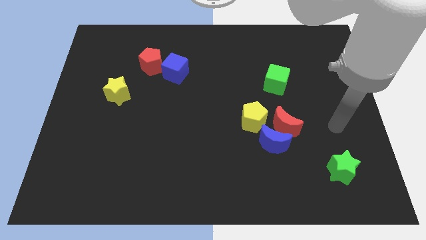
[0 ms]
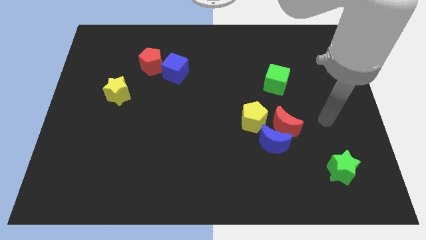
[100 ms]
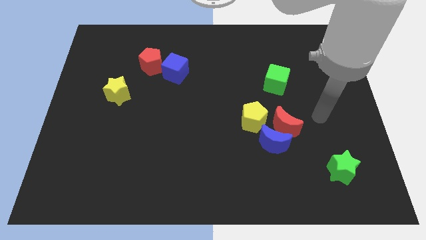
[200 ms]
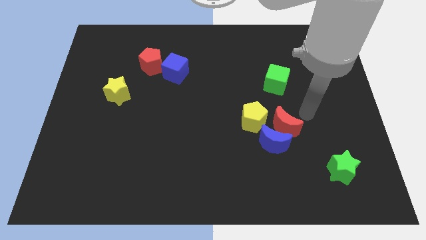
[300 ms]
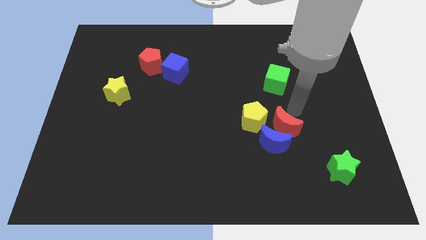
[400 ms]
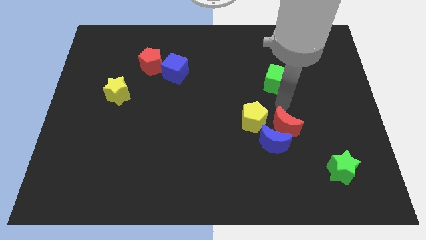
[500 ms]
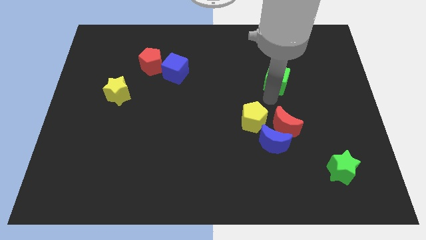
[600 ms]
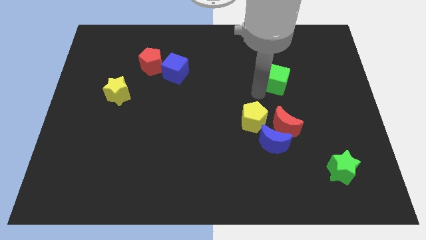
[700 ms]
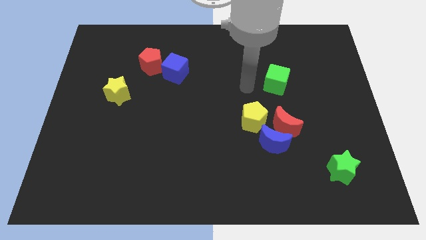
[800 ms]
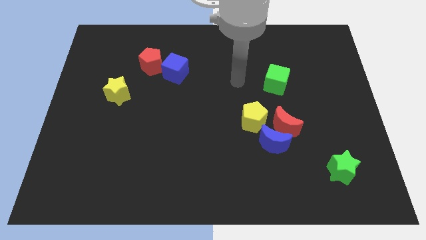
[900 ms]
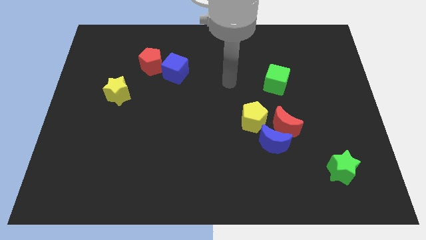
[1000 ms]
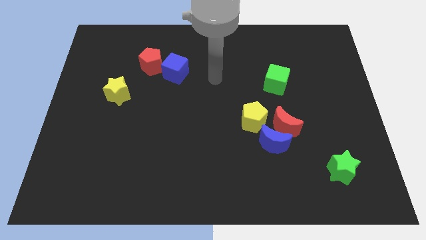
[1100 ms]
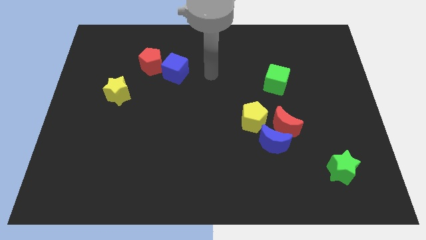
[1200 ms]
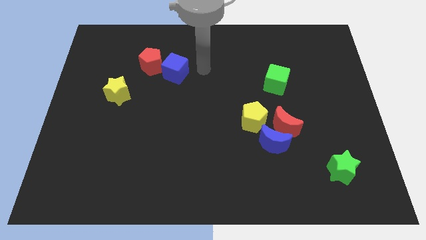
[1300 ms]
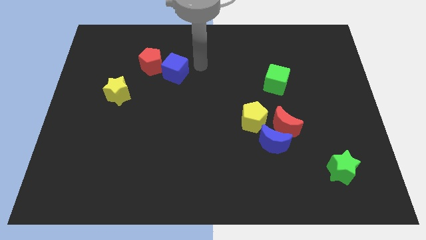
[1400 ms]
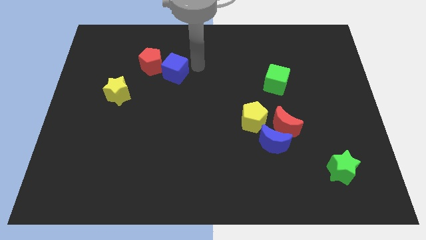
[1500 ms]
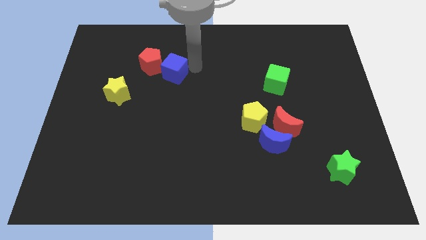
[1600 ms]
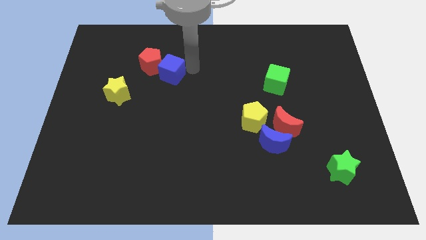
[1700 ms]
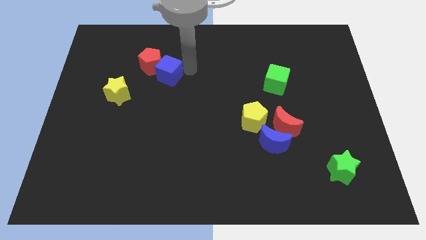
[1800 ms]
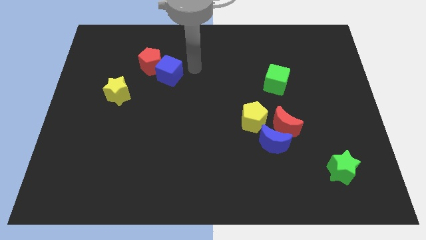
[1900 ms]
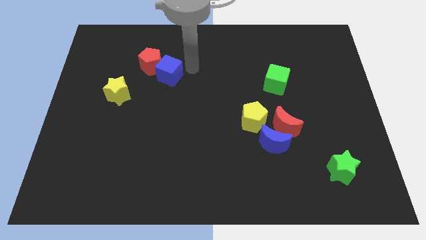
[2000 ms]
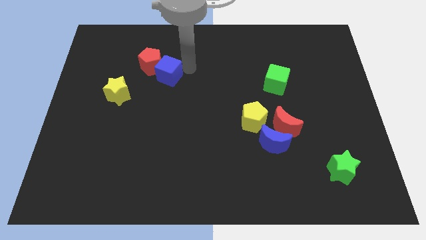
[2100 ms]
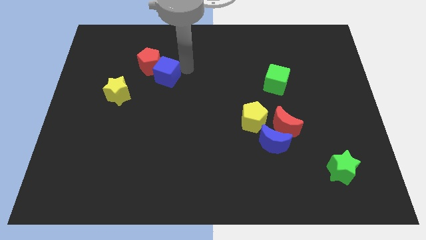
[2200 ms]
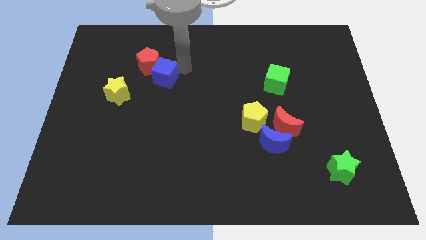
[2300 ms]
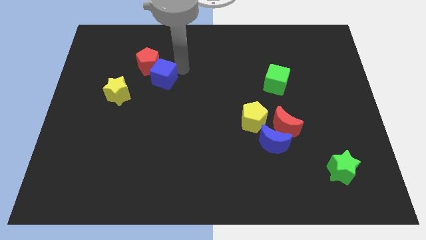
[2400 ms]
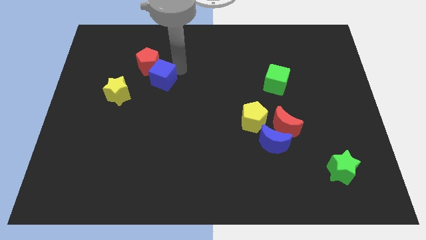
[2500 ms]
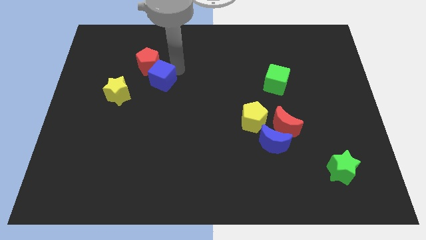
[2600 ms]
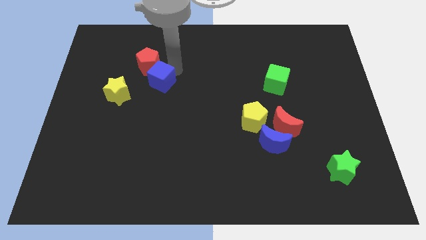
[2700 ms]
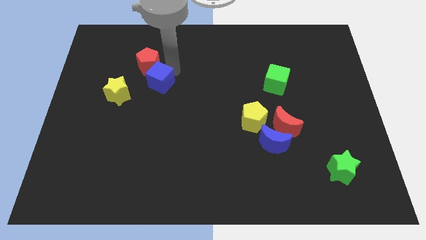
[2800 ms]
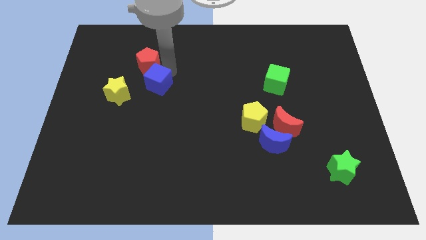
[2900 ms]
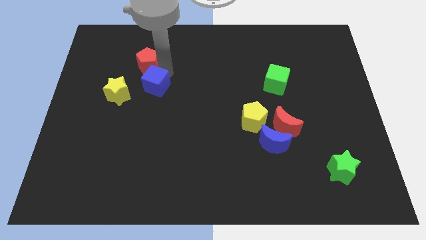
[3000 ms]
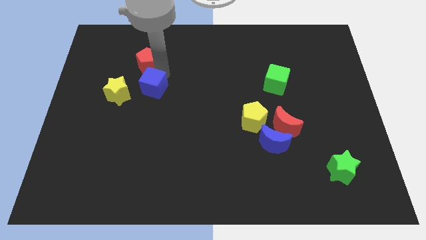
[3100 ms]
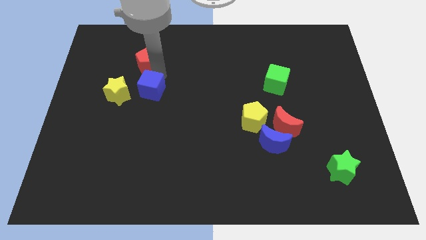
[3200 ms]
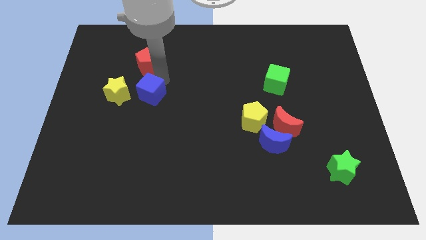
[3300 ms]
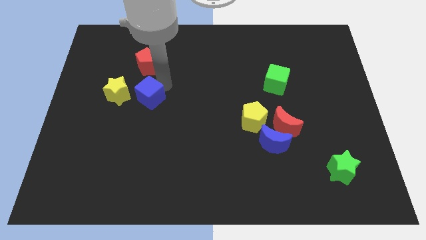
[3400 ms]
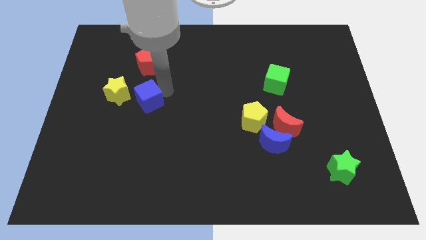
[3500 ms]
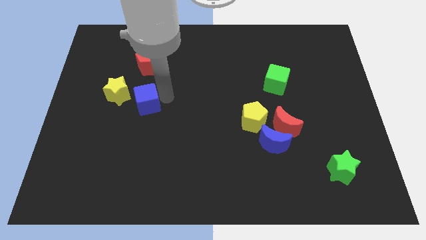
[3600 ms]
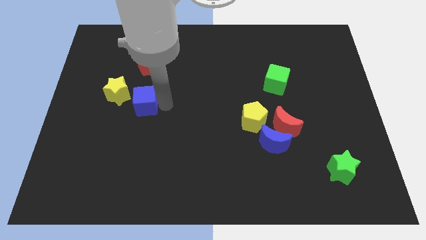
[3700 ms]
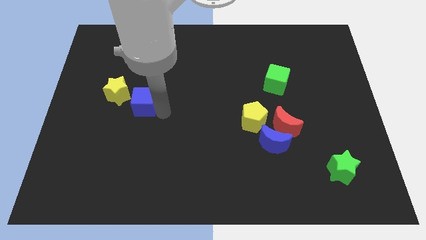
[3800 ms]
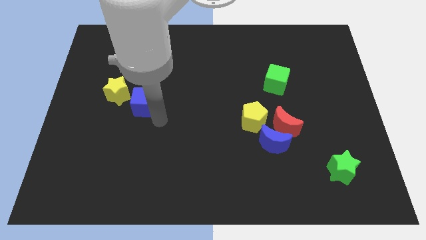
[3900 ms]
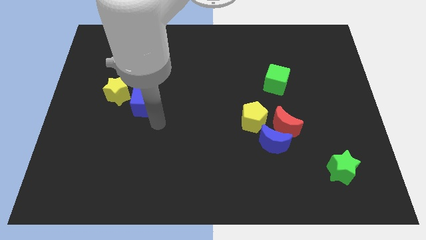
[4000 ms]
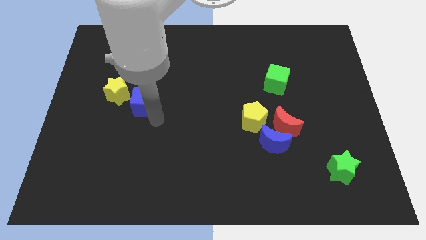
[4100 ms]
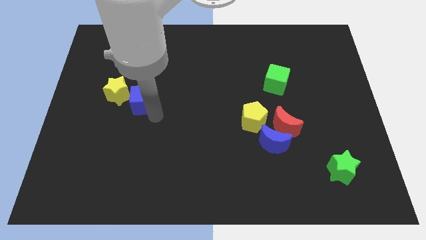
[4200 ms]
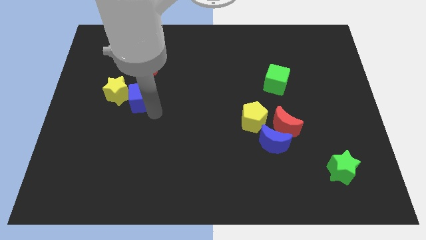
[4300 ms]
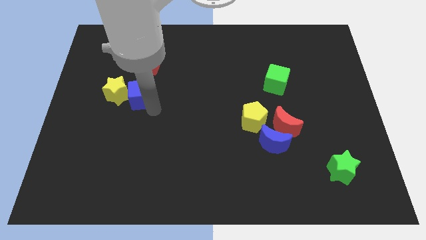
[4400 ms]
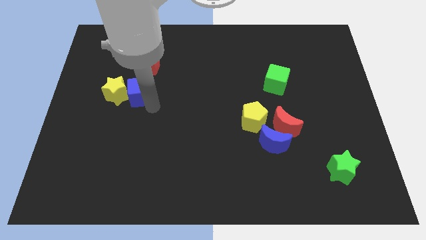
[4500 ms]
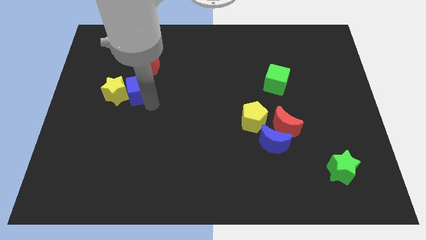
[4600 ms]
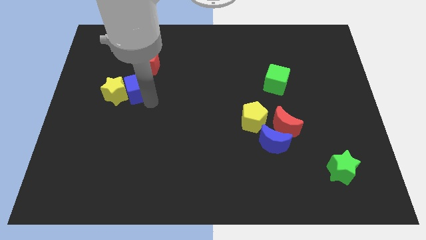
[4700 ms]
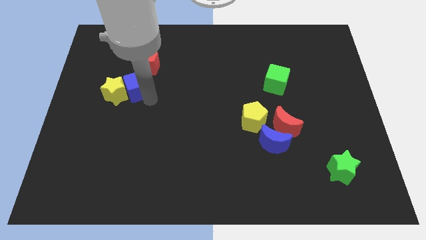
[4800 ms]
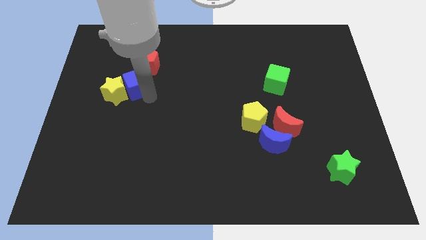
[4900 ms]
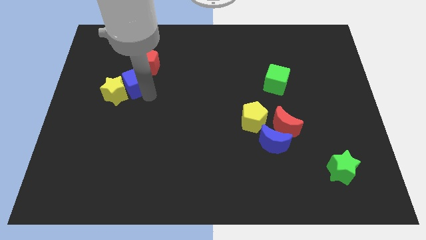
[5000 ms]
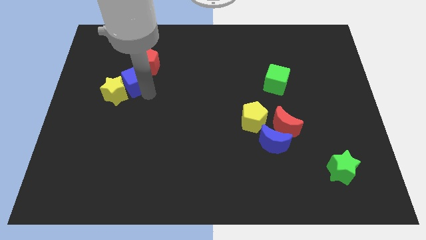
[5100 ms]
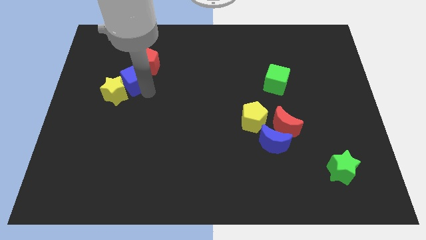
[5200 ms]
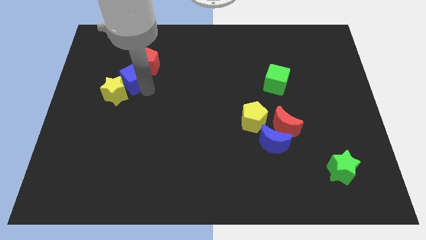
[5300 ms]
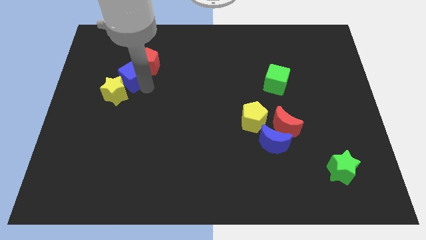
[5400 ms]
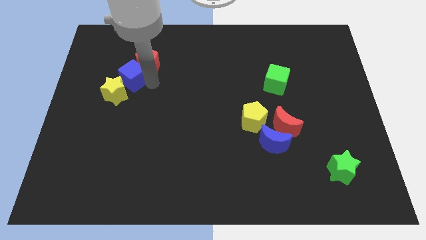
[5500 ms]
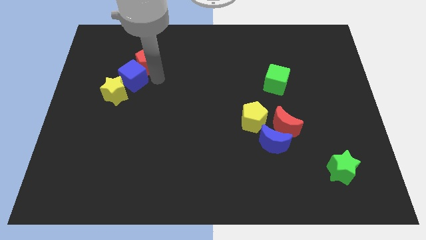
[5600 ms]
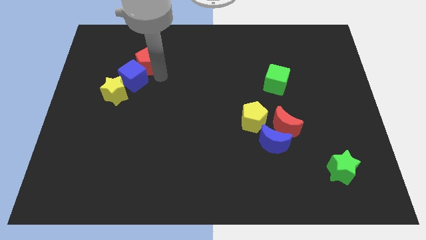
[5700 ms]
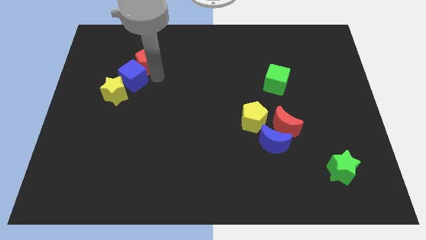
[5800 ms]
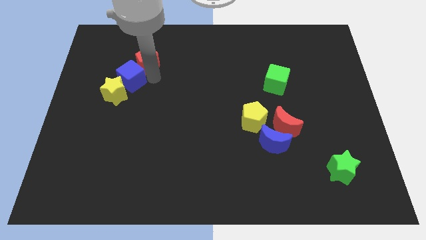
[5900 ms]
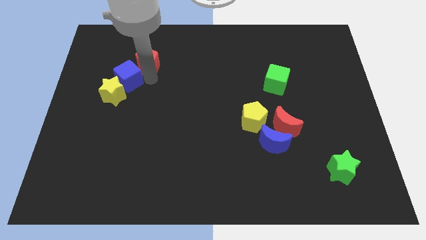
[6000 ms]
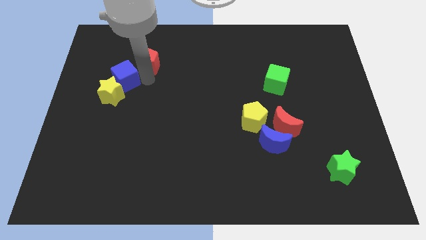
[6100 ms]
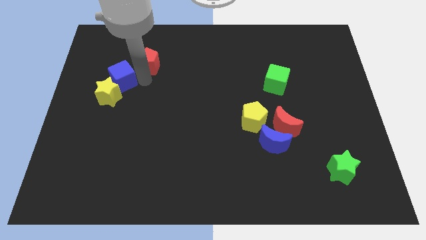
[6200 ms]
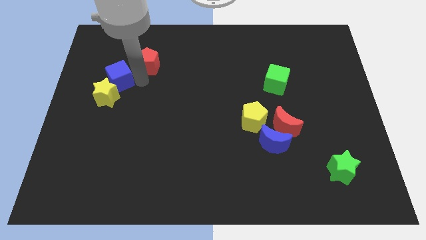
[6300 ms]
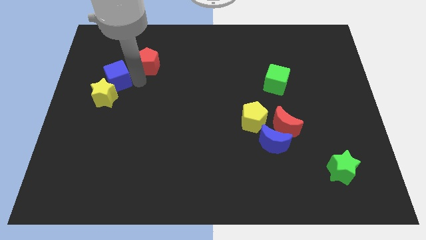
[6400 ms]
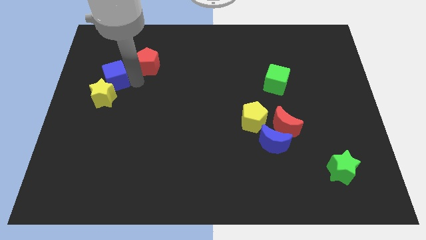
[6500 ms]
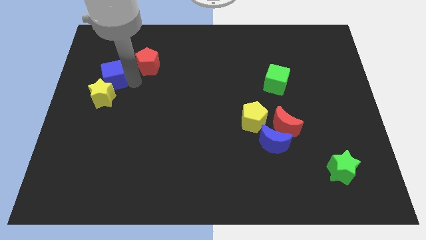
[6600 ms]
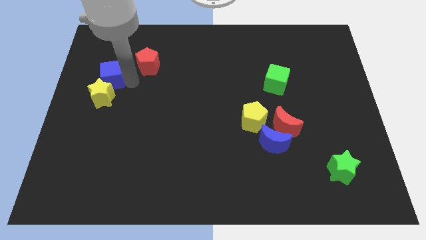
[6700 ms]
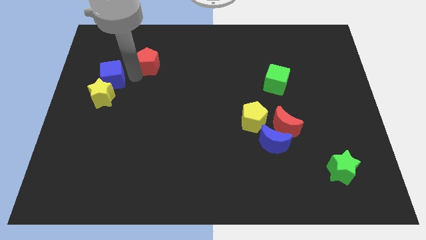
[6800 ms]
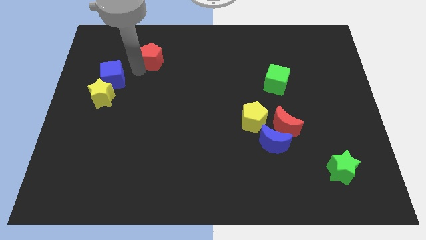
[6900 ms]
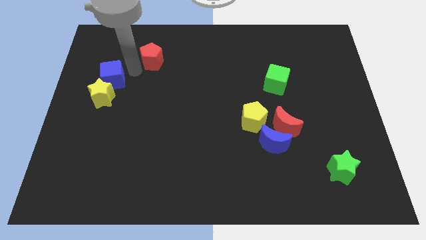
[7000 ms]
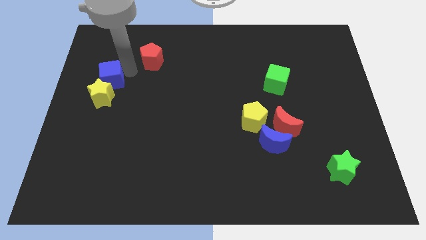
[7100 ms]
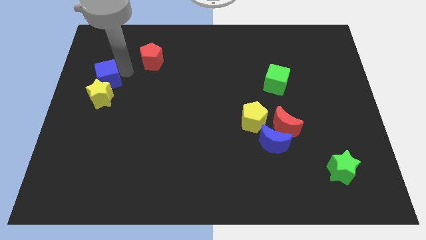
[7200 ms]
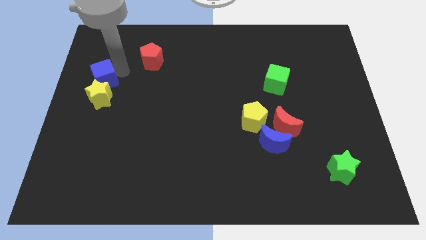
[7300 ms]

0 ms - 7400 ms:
move the blue cube to the left side of the board
